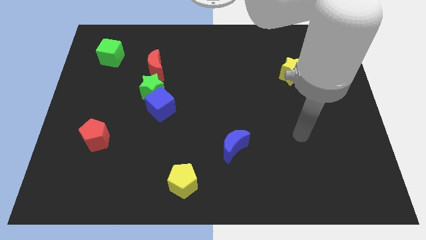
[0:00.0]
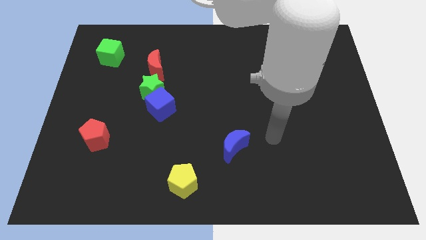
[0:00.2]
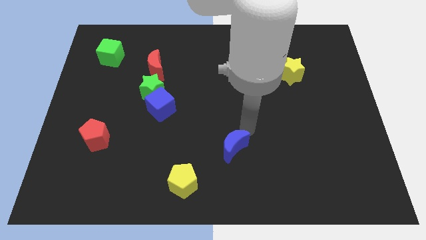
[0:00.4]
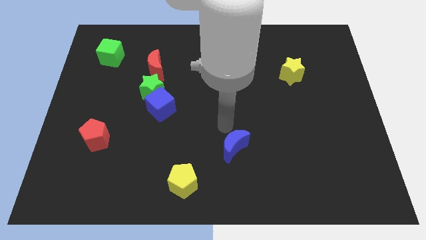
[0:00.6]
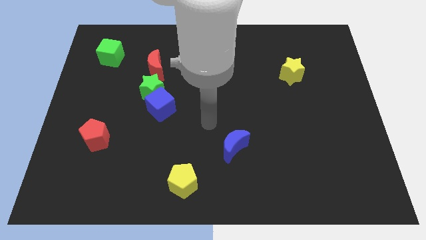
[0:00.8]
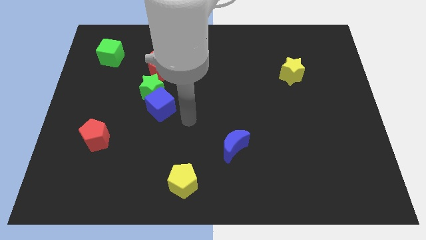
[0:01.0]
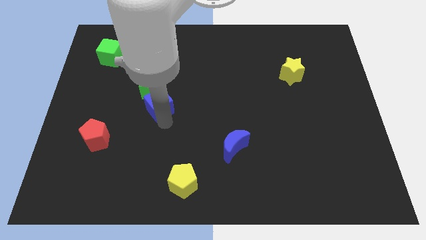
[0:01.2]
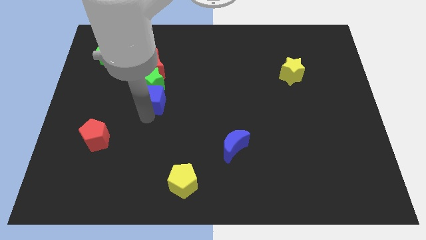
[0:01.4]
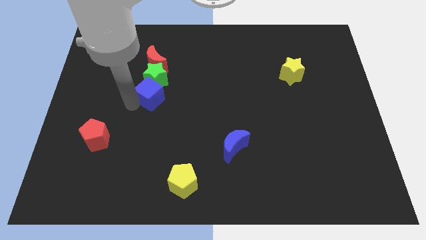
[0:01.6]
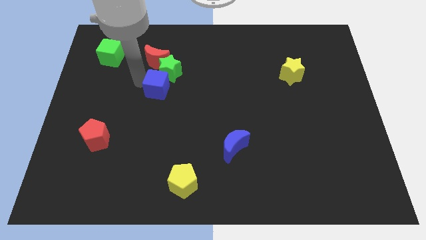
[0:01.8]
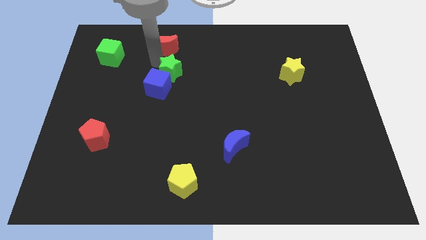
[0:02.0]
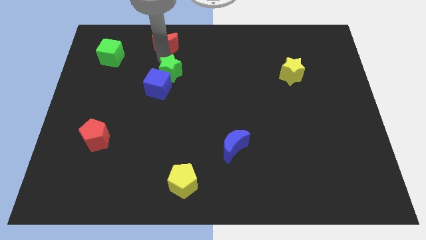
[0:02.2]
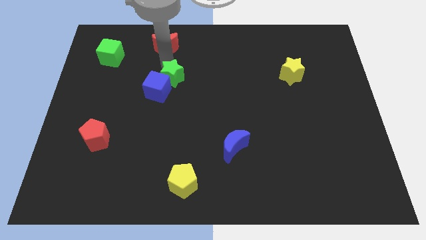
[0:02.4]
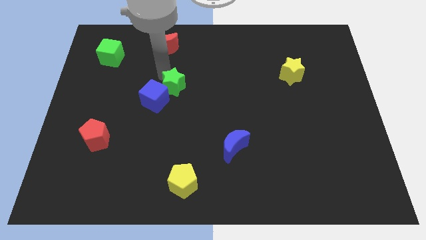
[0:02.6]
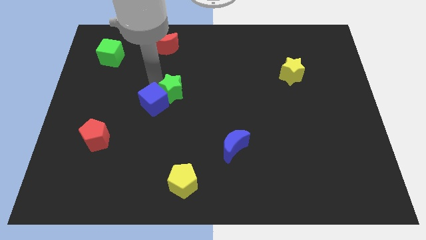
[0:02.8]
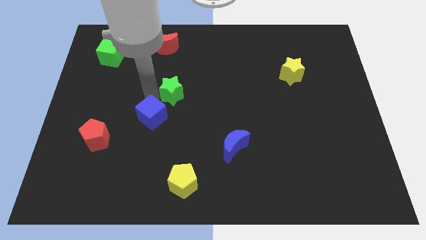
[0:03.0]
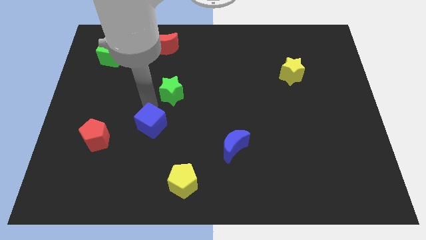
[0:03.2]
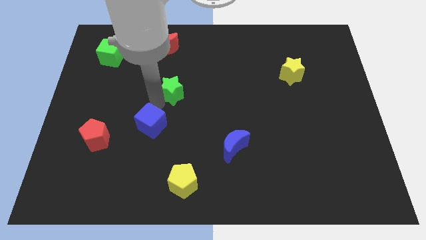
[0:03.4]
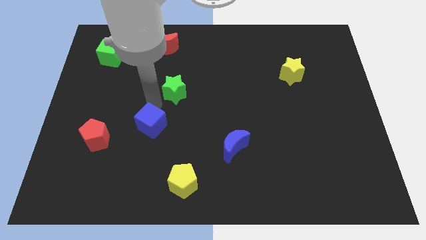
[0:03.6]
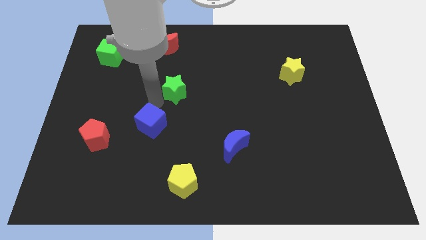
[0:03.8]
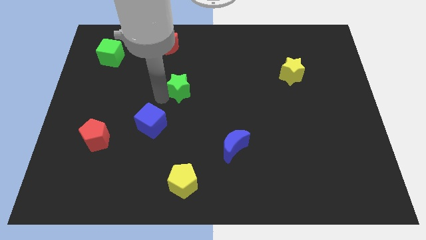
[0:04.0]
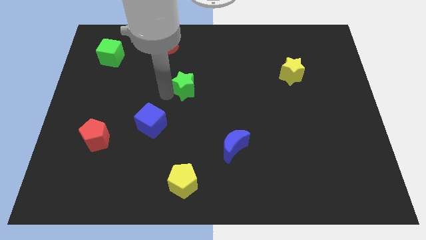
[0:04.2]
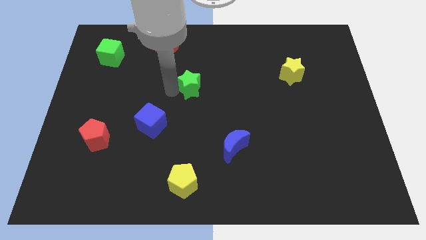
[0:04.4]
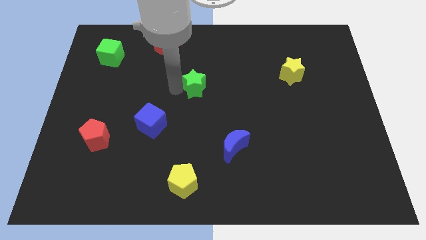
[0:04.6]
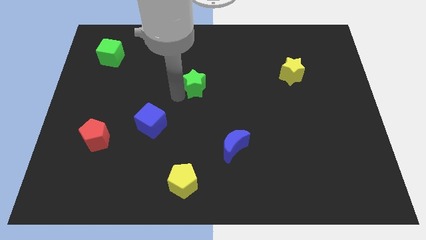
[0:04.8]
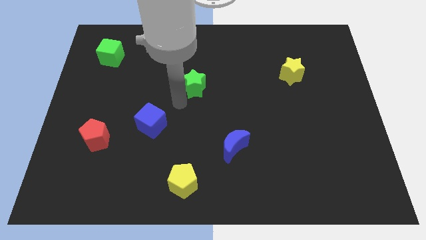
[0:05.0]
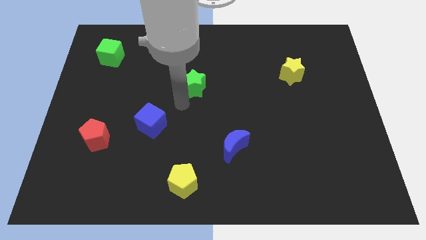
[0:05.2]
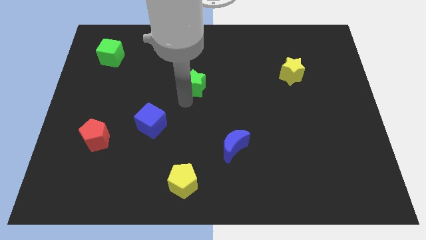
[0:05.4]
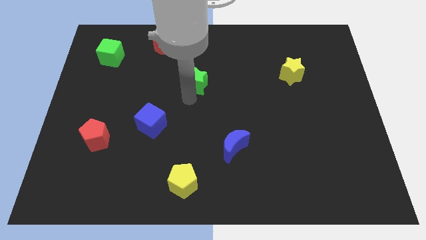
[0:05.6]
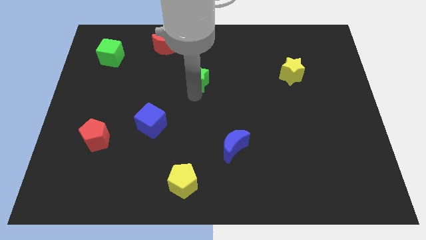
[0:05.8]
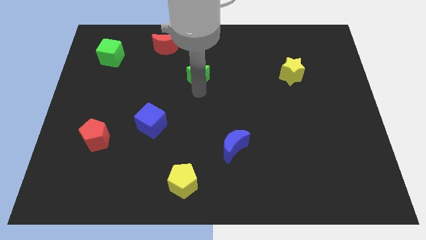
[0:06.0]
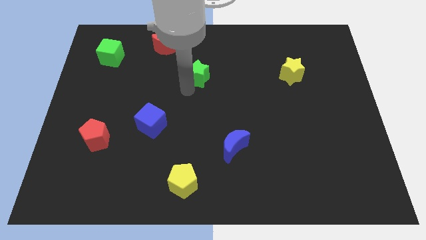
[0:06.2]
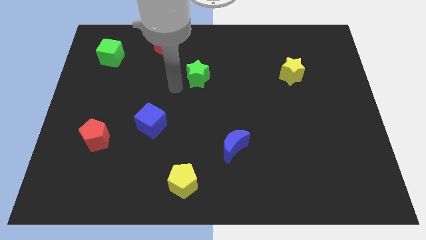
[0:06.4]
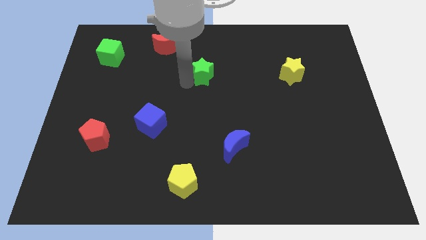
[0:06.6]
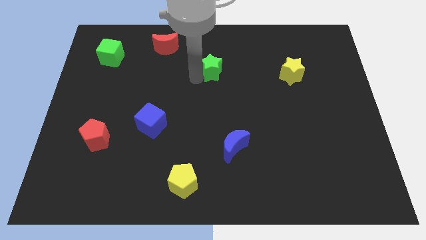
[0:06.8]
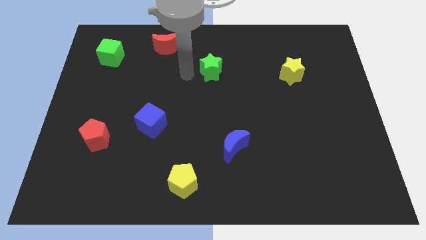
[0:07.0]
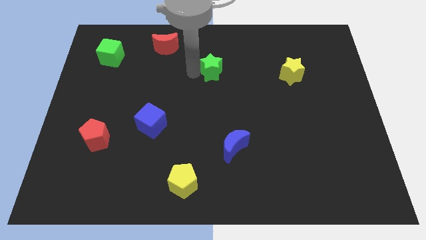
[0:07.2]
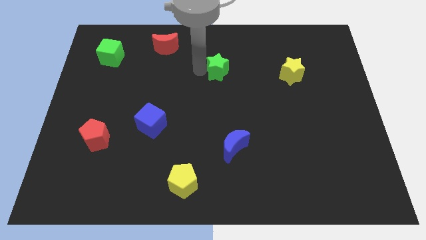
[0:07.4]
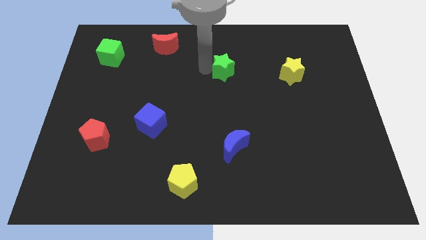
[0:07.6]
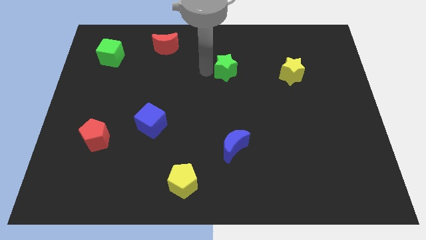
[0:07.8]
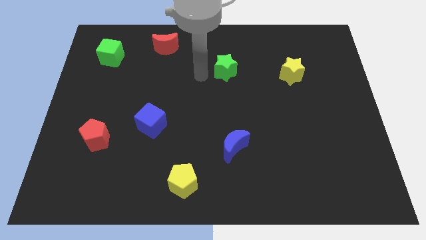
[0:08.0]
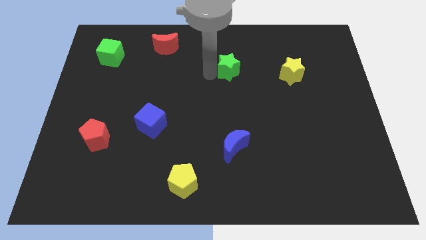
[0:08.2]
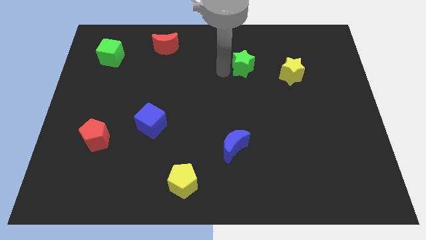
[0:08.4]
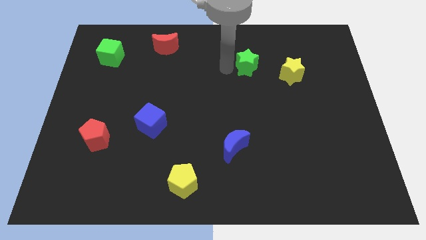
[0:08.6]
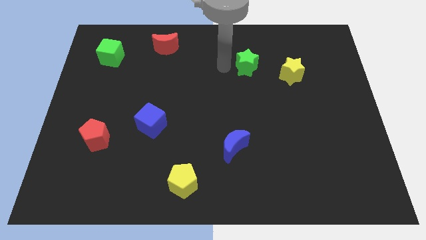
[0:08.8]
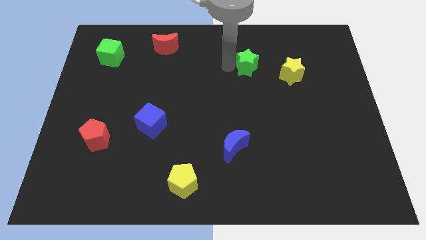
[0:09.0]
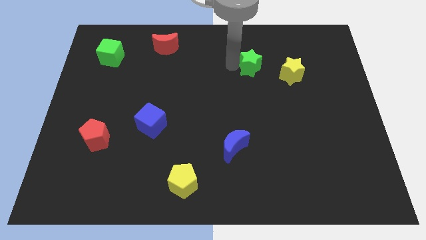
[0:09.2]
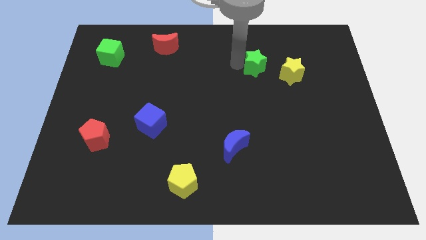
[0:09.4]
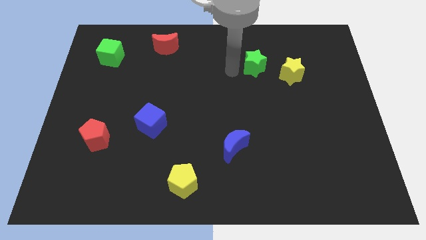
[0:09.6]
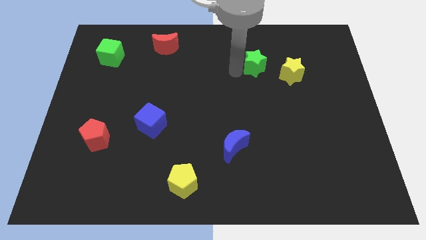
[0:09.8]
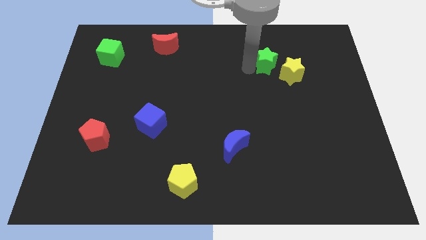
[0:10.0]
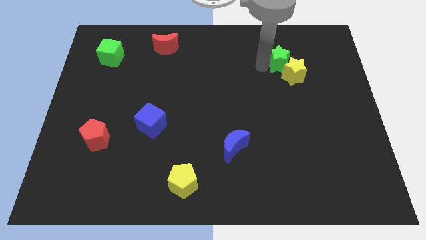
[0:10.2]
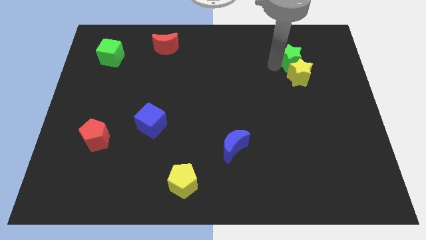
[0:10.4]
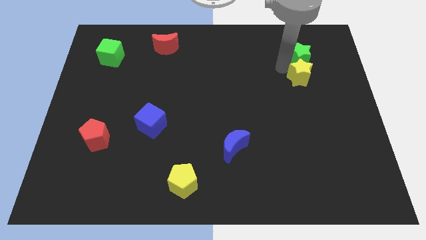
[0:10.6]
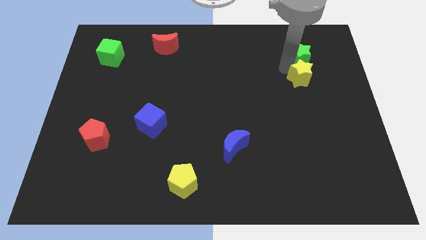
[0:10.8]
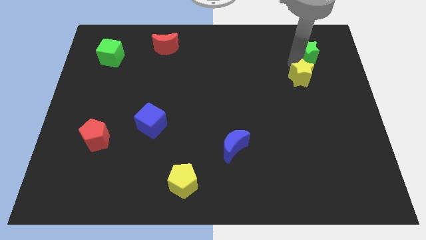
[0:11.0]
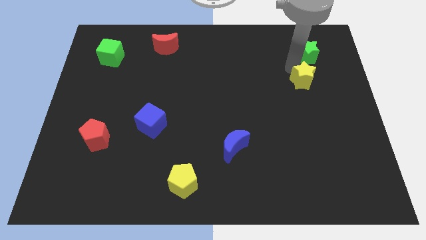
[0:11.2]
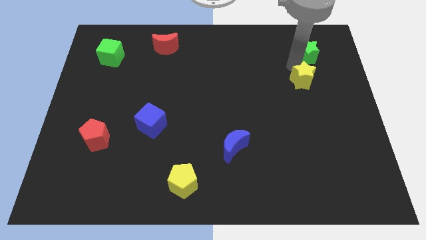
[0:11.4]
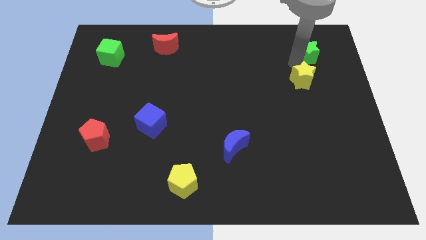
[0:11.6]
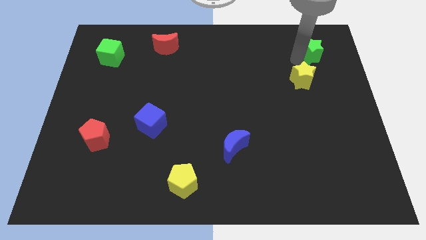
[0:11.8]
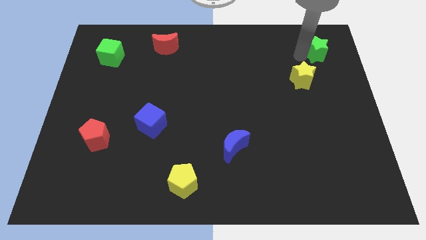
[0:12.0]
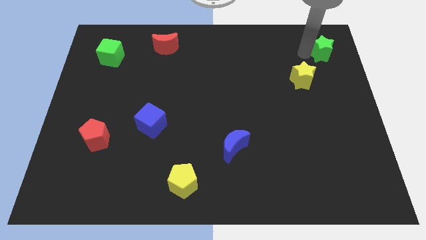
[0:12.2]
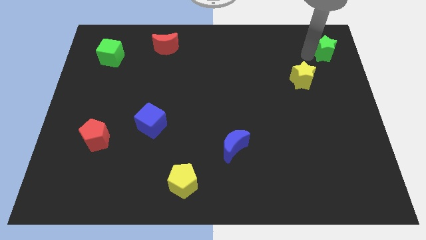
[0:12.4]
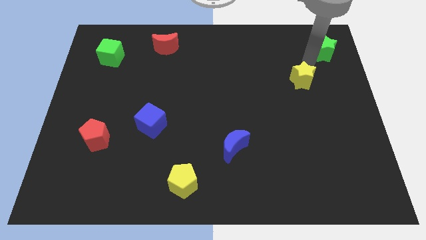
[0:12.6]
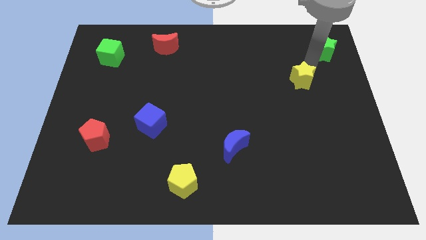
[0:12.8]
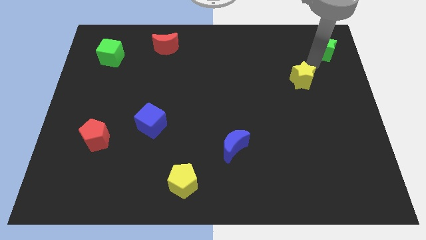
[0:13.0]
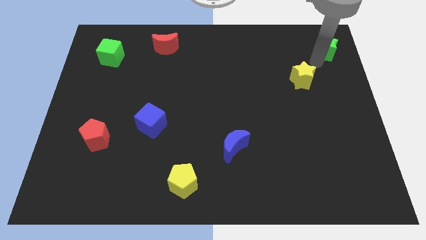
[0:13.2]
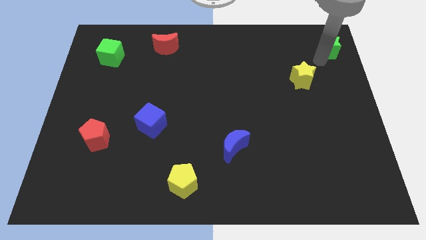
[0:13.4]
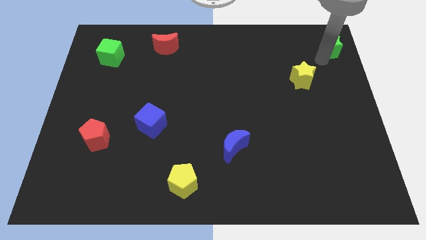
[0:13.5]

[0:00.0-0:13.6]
move the green star to the upper right corner
